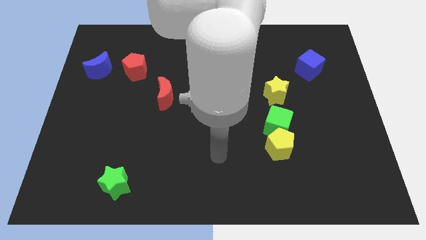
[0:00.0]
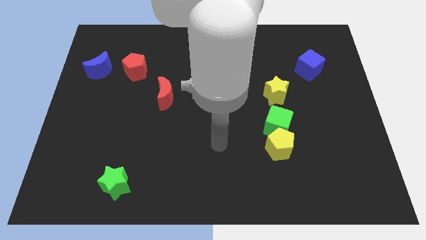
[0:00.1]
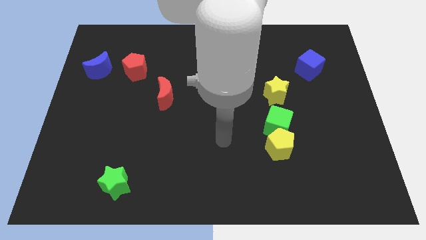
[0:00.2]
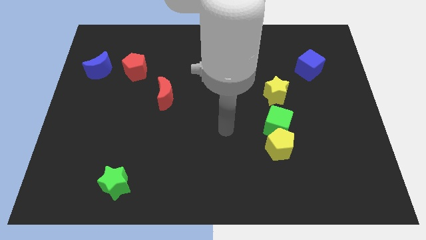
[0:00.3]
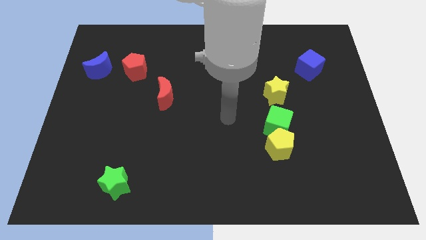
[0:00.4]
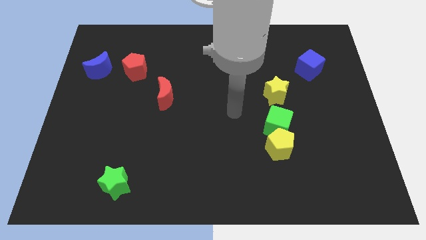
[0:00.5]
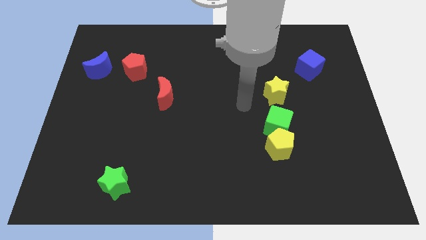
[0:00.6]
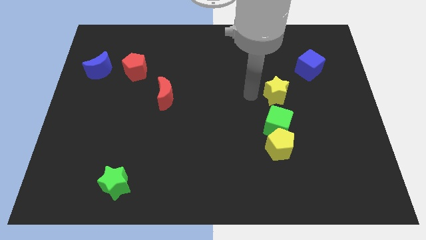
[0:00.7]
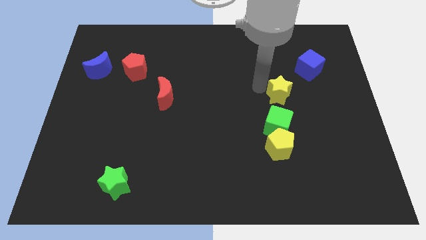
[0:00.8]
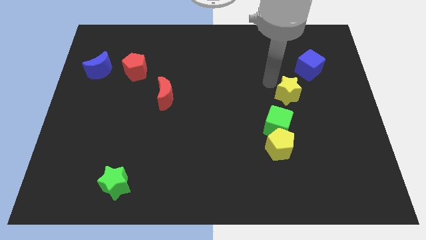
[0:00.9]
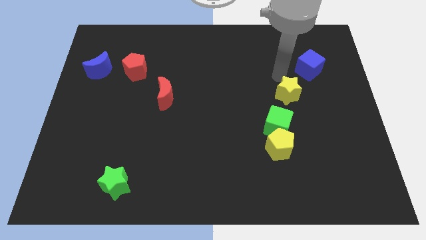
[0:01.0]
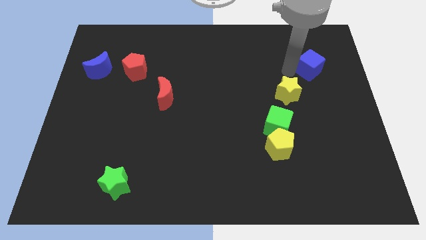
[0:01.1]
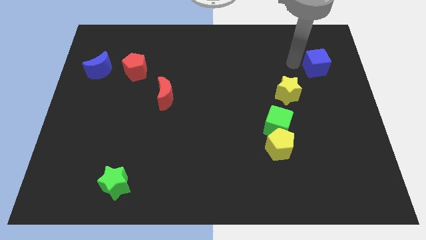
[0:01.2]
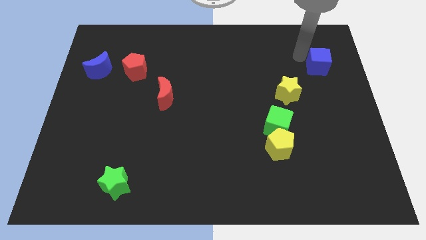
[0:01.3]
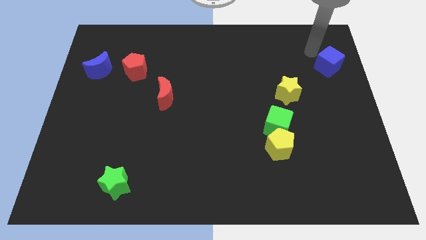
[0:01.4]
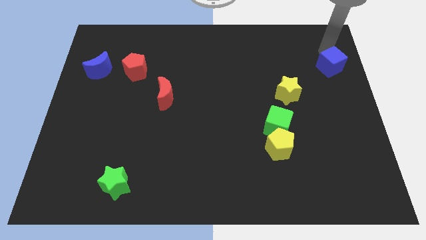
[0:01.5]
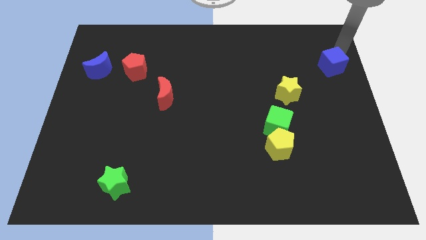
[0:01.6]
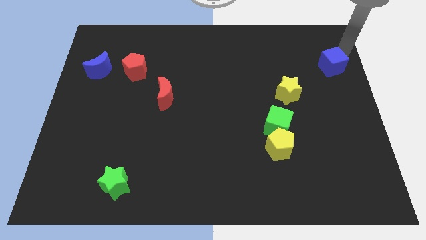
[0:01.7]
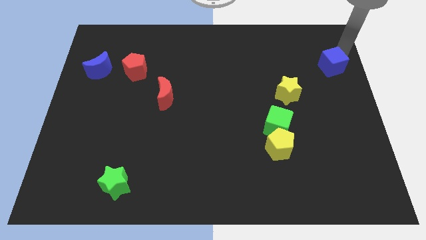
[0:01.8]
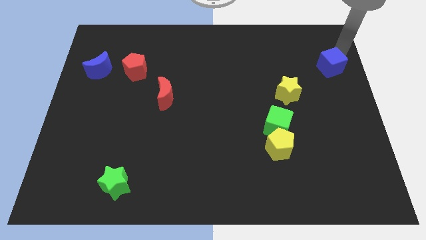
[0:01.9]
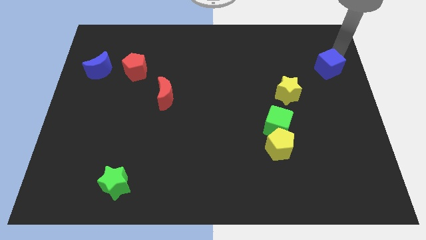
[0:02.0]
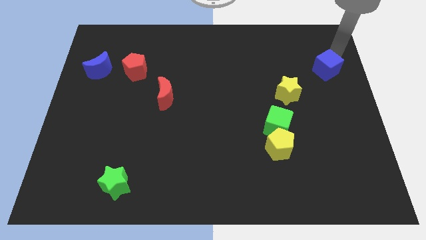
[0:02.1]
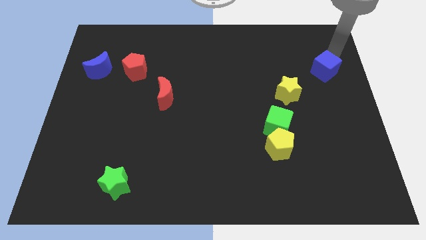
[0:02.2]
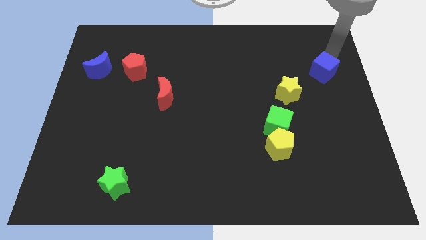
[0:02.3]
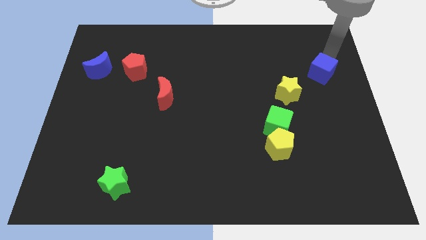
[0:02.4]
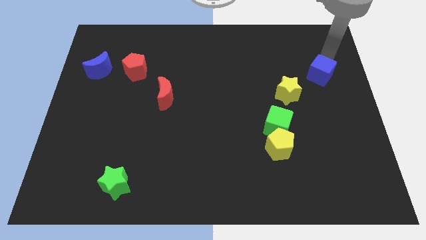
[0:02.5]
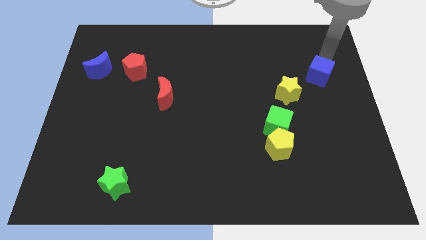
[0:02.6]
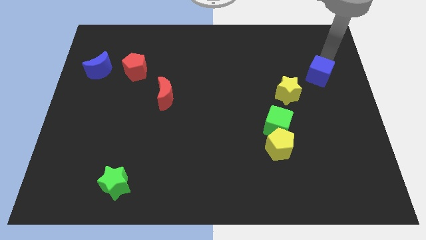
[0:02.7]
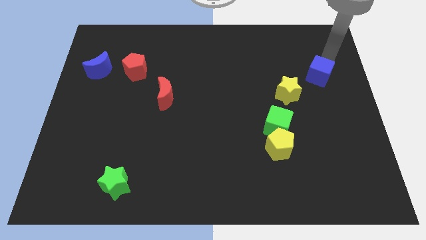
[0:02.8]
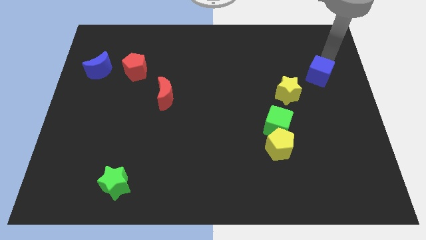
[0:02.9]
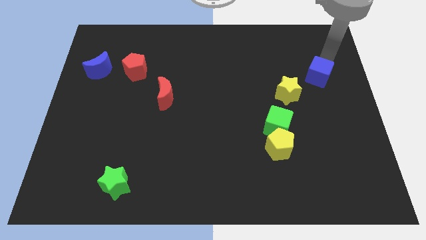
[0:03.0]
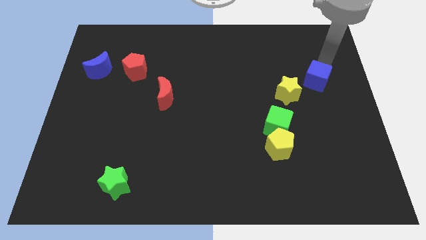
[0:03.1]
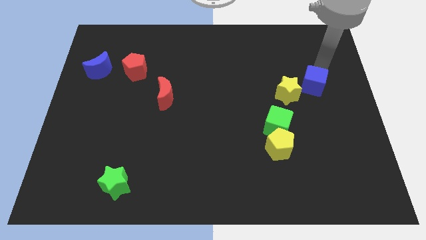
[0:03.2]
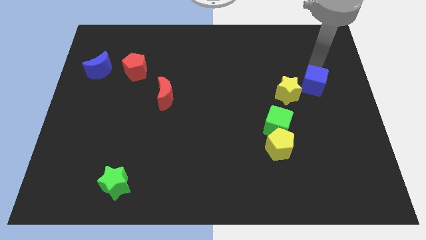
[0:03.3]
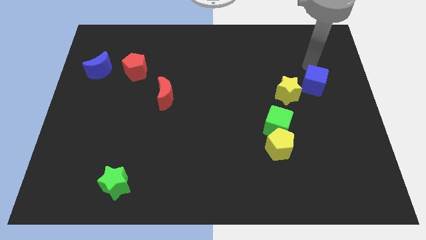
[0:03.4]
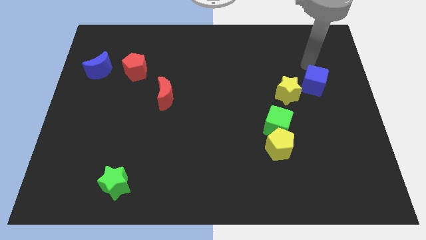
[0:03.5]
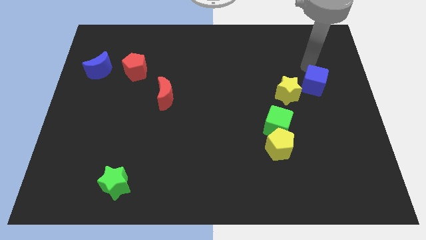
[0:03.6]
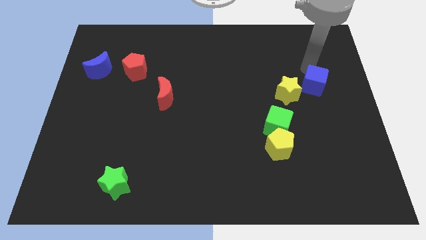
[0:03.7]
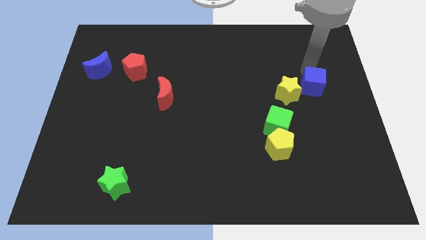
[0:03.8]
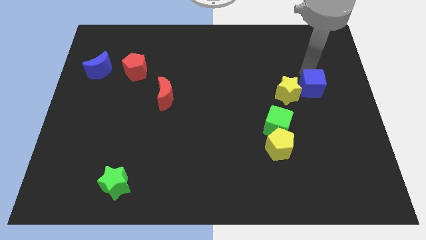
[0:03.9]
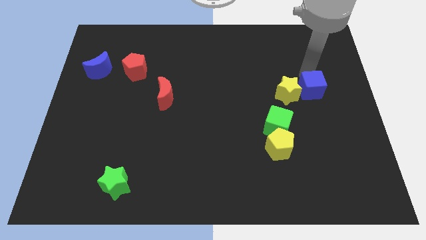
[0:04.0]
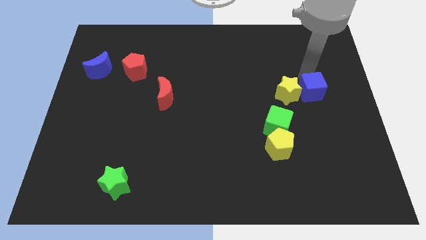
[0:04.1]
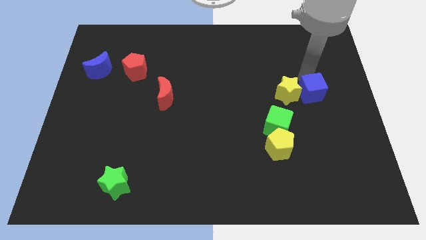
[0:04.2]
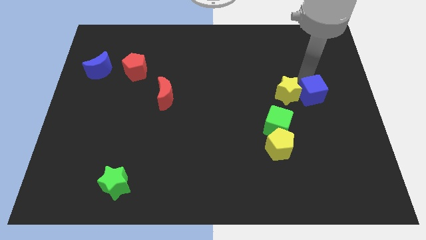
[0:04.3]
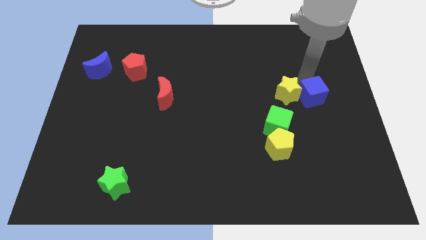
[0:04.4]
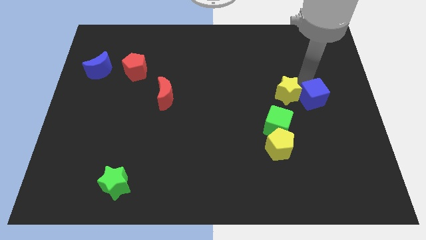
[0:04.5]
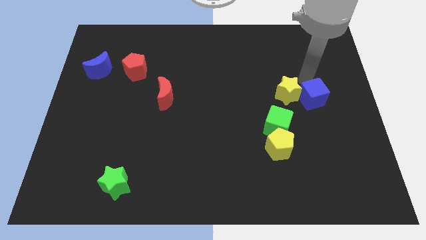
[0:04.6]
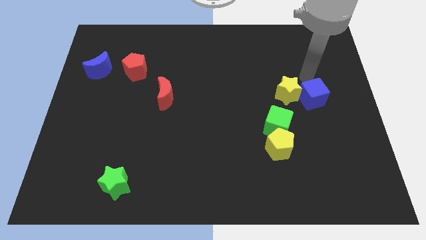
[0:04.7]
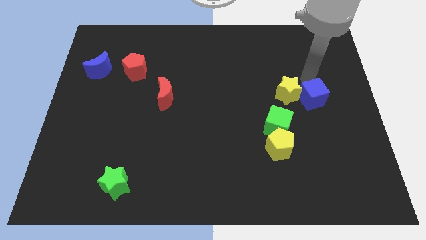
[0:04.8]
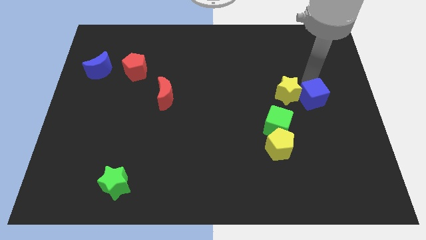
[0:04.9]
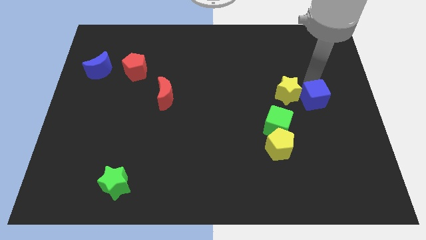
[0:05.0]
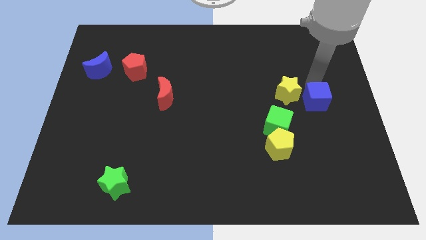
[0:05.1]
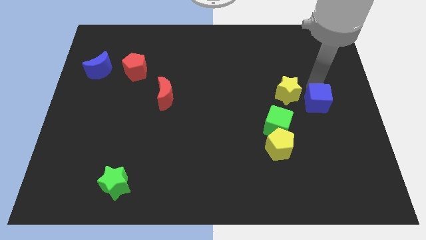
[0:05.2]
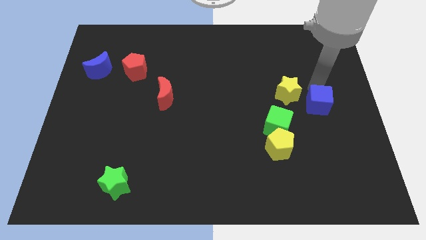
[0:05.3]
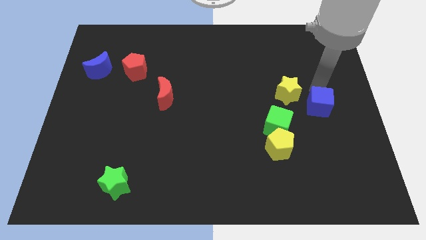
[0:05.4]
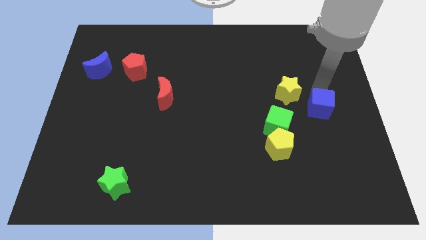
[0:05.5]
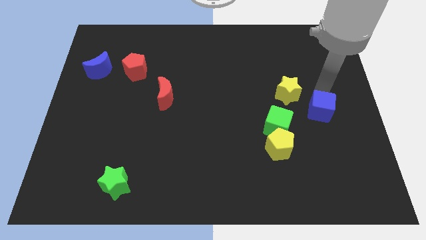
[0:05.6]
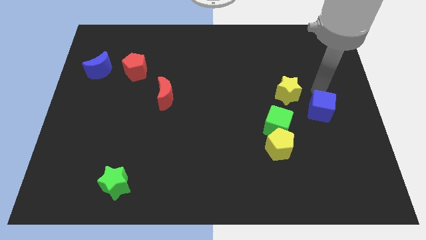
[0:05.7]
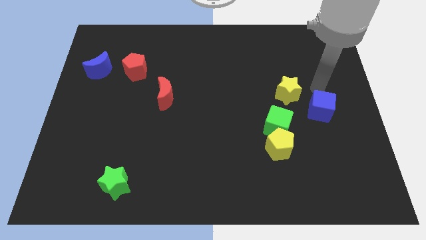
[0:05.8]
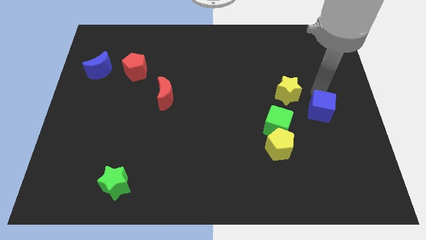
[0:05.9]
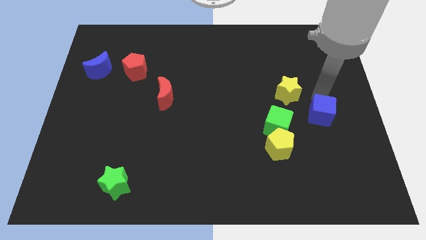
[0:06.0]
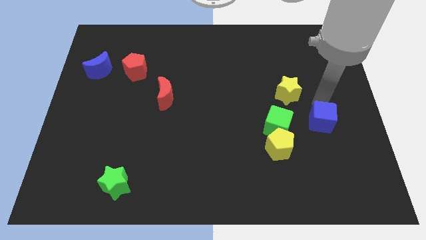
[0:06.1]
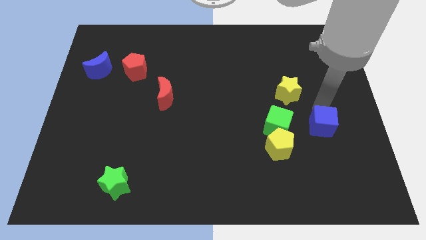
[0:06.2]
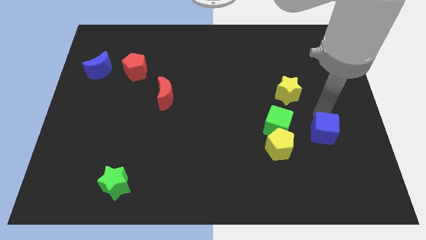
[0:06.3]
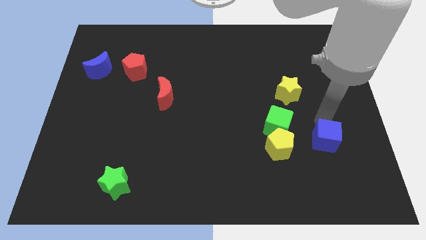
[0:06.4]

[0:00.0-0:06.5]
move the blue cube down

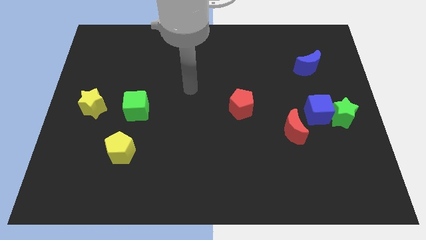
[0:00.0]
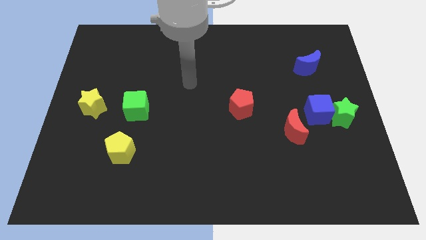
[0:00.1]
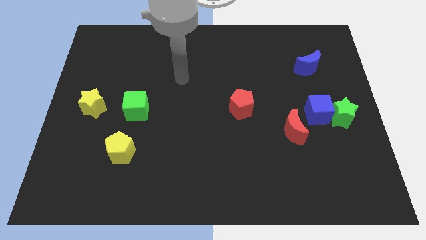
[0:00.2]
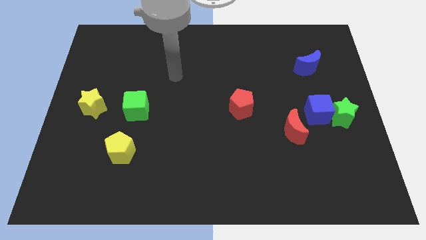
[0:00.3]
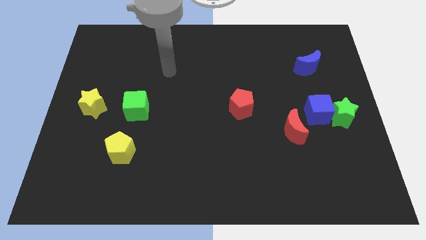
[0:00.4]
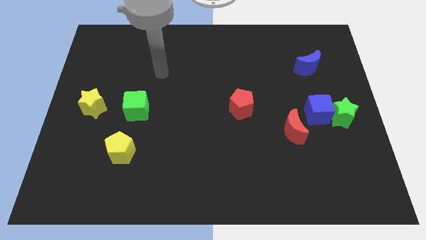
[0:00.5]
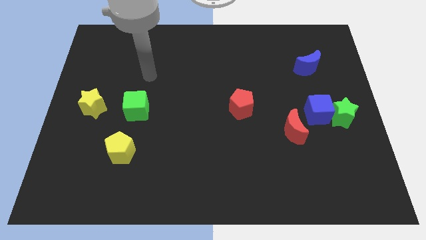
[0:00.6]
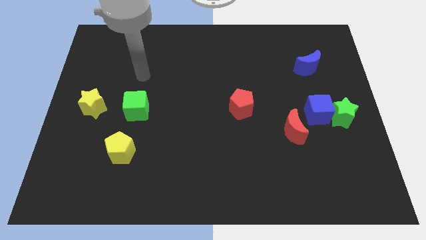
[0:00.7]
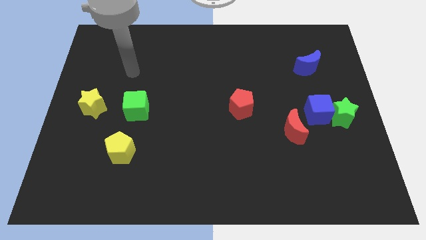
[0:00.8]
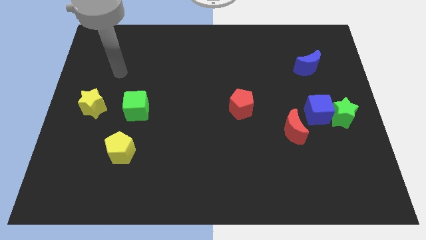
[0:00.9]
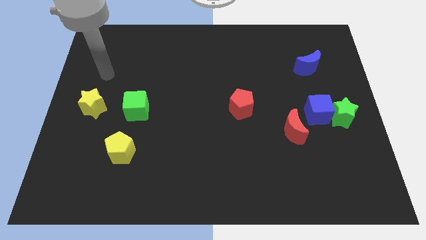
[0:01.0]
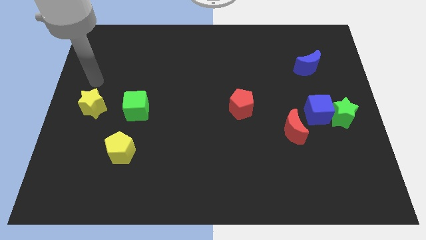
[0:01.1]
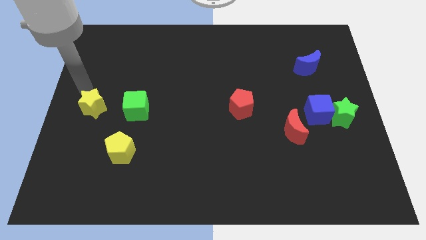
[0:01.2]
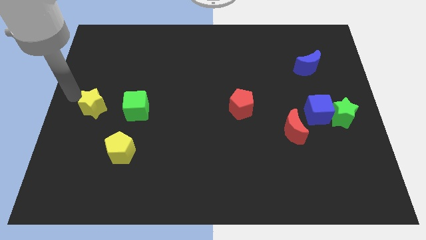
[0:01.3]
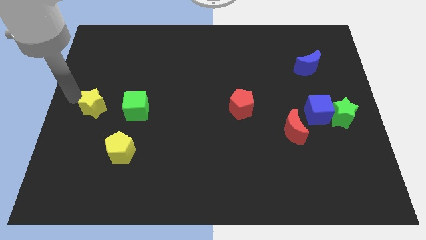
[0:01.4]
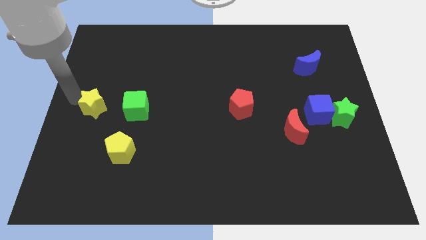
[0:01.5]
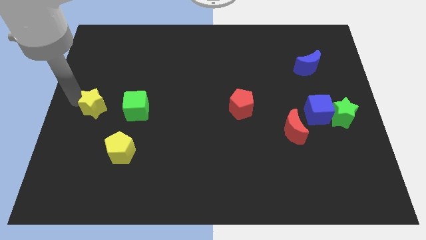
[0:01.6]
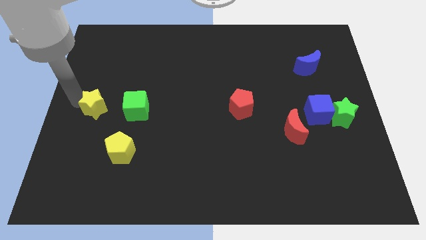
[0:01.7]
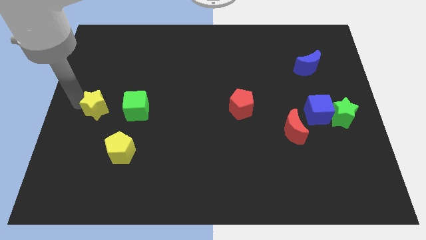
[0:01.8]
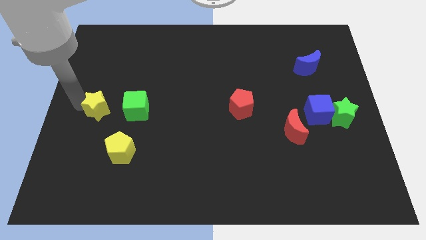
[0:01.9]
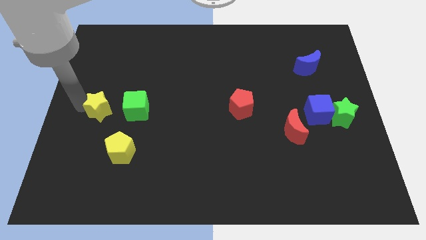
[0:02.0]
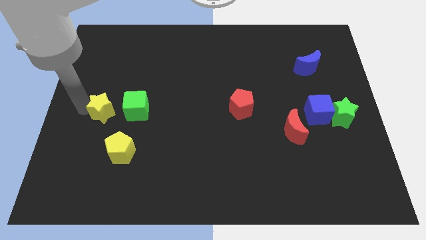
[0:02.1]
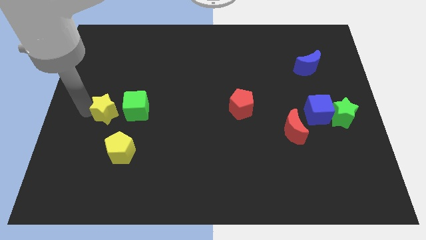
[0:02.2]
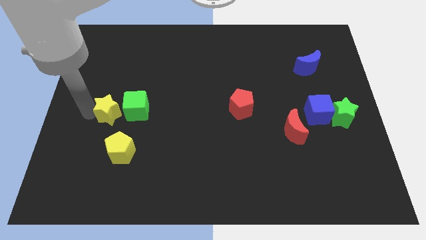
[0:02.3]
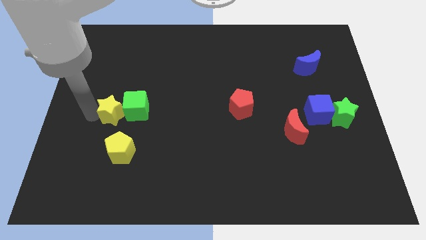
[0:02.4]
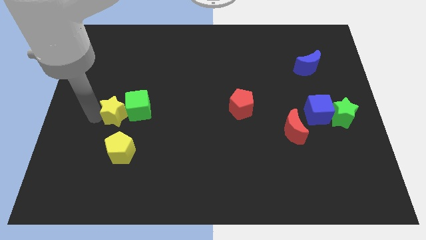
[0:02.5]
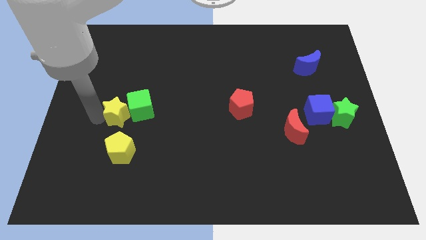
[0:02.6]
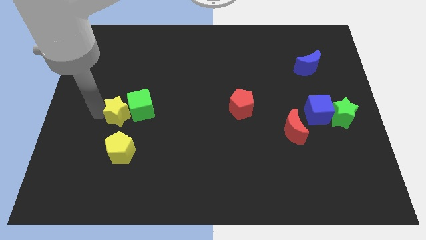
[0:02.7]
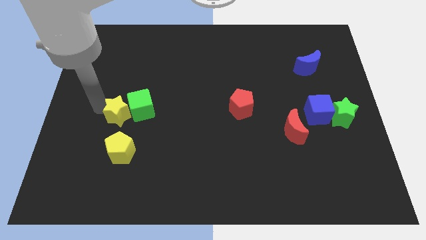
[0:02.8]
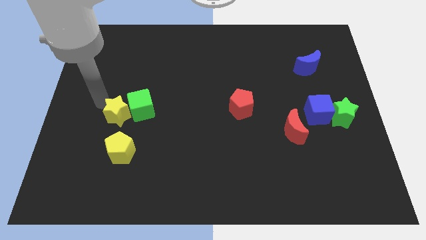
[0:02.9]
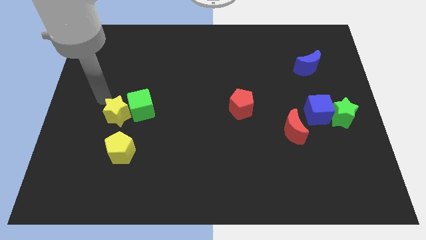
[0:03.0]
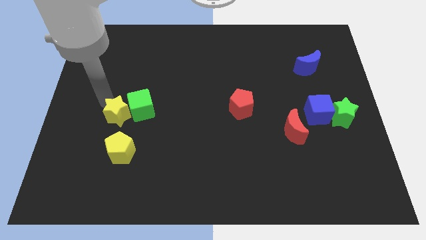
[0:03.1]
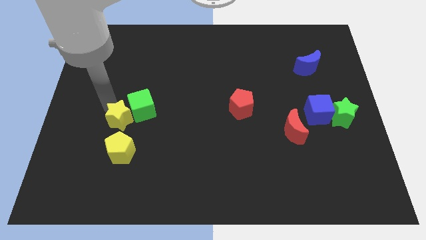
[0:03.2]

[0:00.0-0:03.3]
move the yellow star a bit diagonally down and to the right
